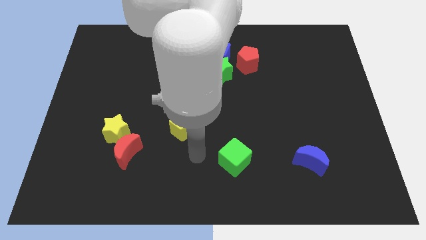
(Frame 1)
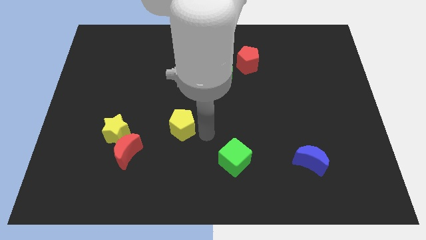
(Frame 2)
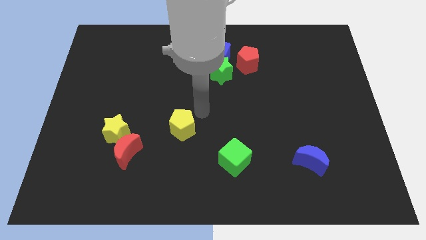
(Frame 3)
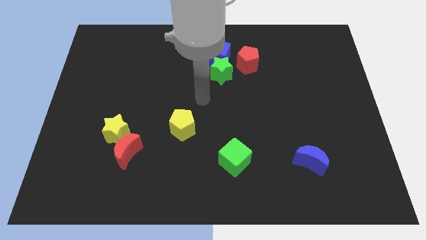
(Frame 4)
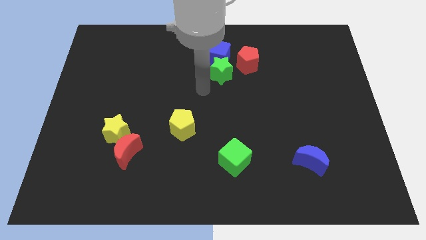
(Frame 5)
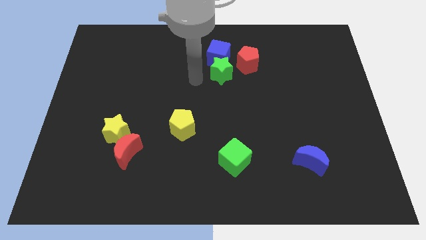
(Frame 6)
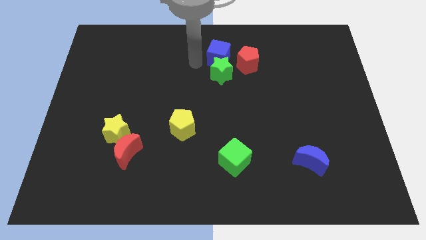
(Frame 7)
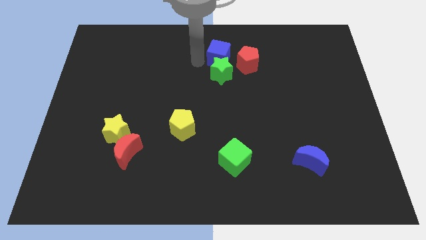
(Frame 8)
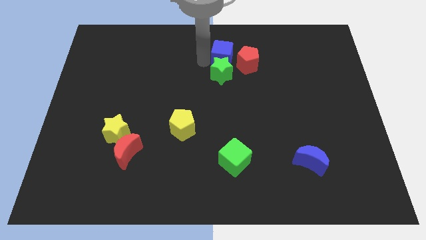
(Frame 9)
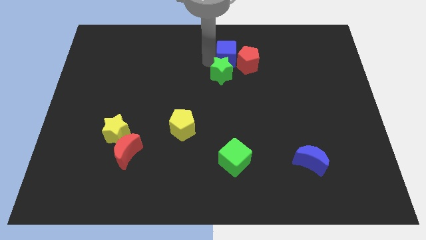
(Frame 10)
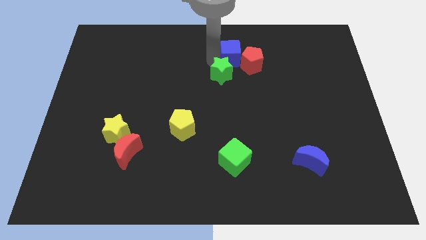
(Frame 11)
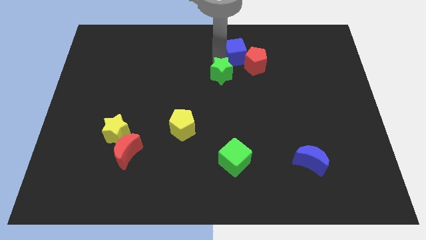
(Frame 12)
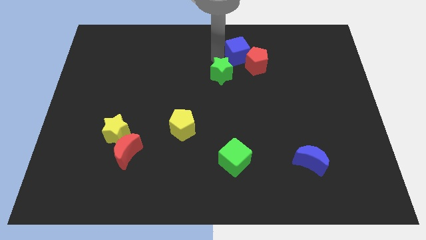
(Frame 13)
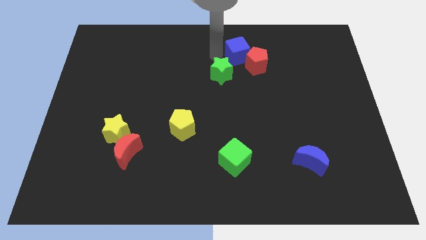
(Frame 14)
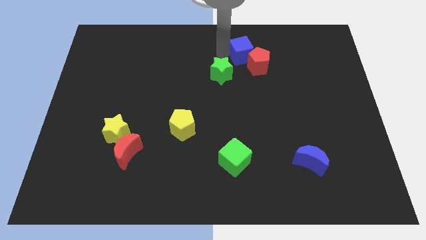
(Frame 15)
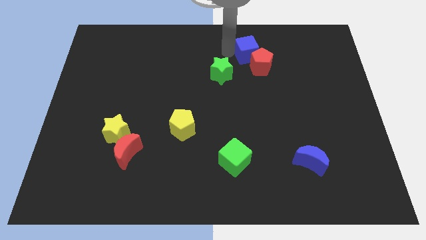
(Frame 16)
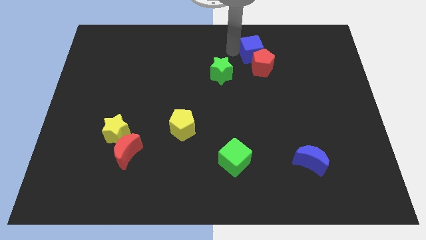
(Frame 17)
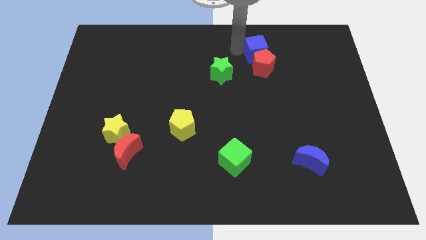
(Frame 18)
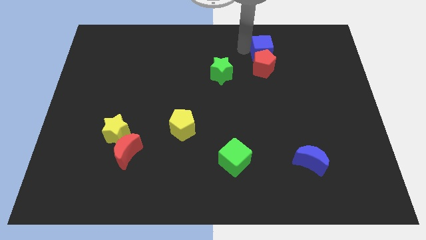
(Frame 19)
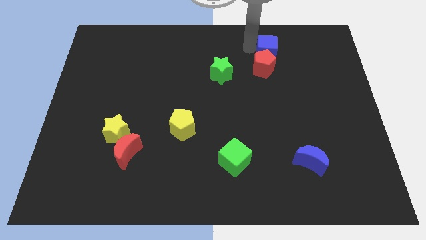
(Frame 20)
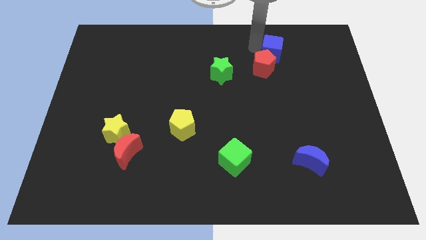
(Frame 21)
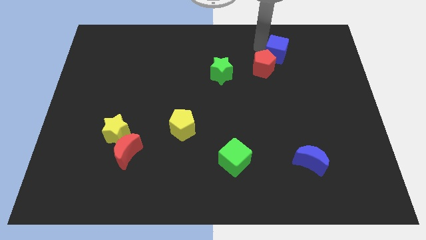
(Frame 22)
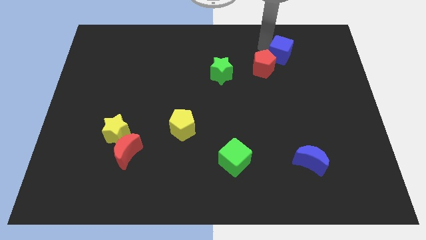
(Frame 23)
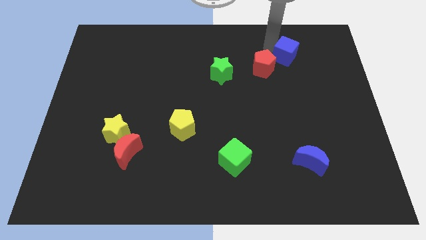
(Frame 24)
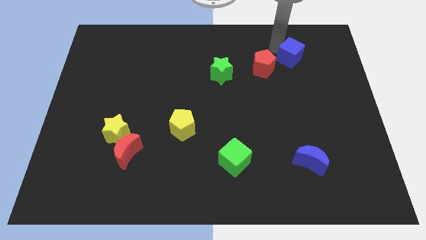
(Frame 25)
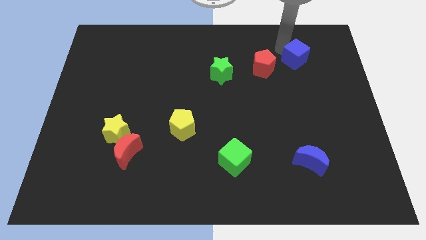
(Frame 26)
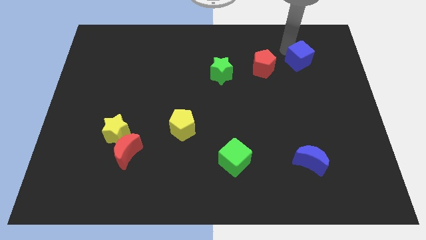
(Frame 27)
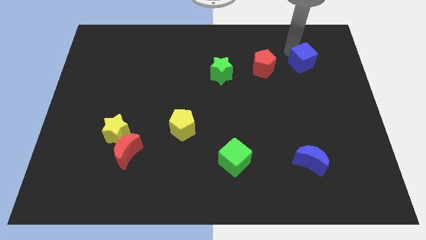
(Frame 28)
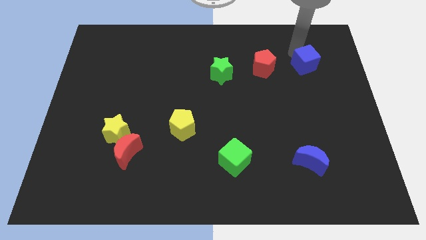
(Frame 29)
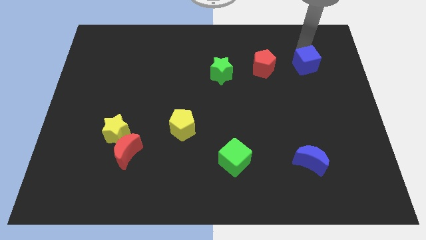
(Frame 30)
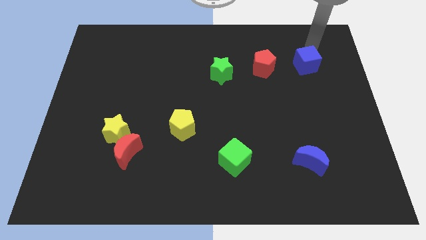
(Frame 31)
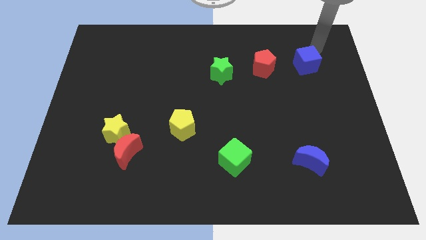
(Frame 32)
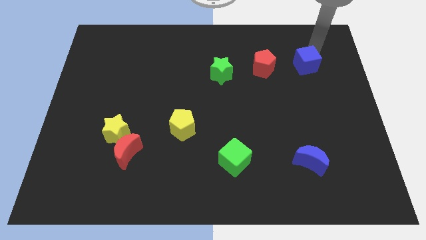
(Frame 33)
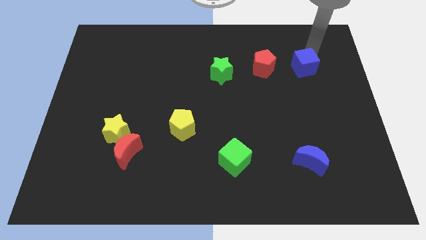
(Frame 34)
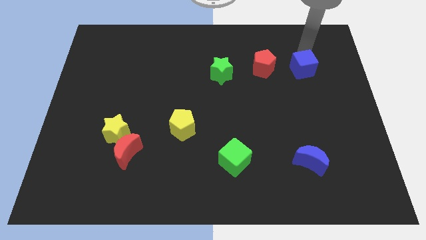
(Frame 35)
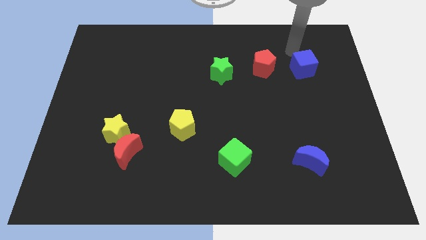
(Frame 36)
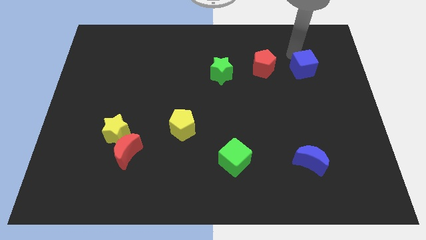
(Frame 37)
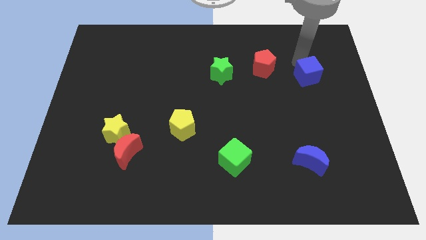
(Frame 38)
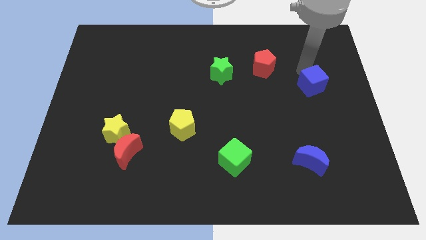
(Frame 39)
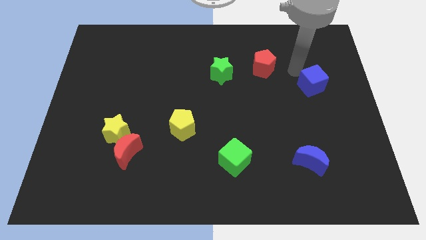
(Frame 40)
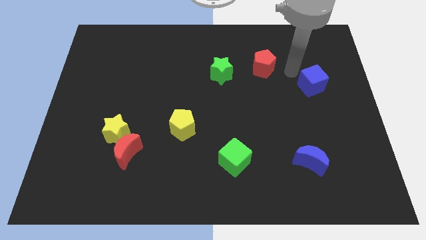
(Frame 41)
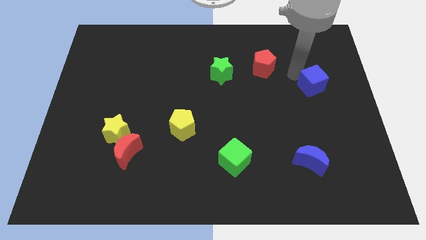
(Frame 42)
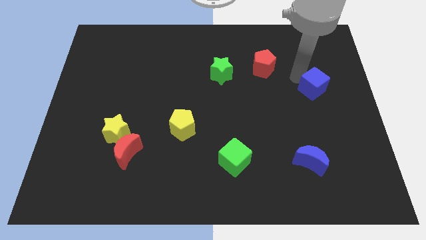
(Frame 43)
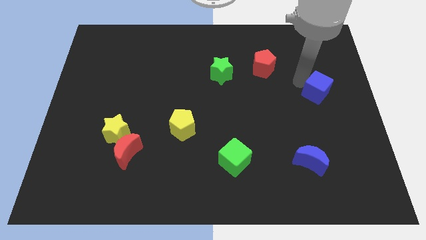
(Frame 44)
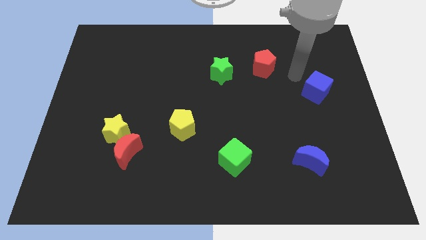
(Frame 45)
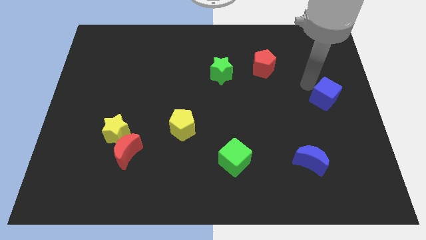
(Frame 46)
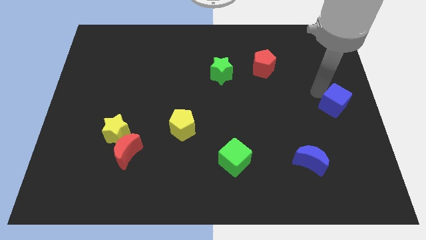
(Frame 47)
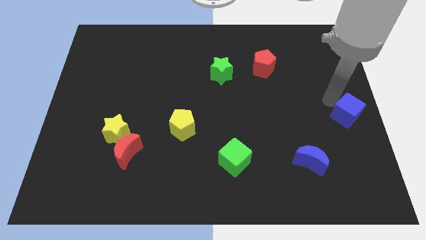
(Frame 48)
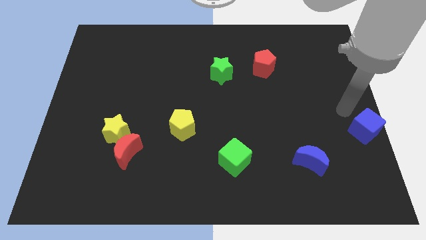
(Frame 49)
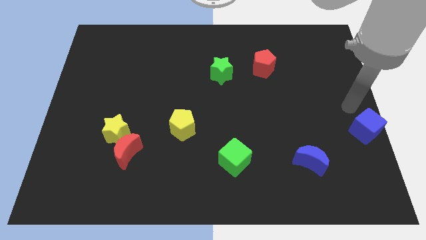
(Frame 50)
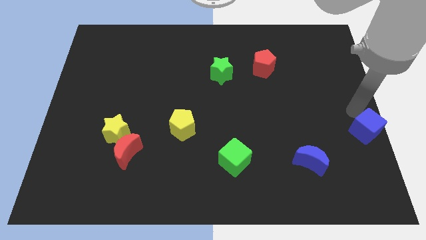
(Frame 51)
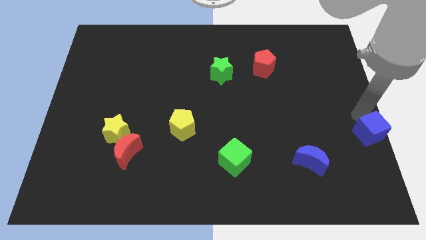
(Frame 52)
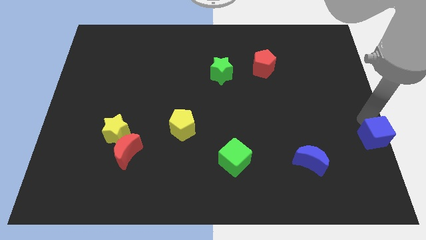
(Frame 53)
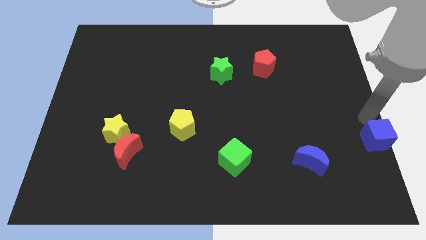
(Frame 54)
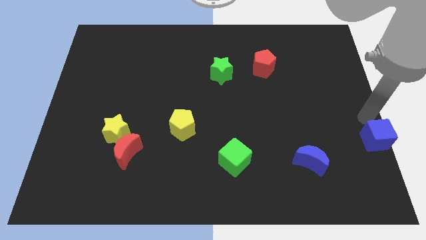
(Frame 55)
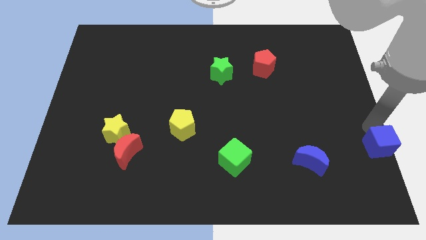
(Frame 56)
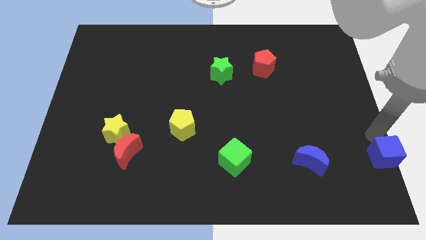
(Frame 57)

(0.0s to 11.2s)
move the blue cube to the bottom right of the board

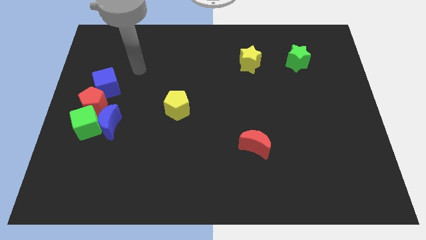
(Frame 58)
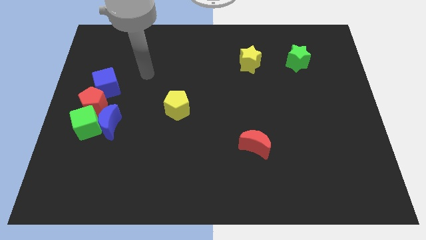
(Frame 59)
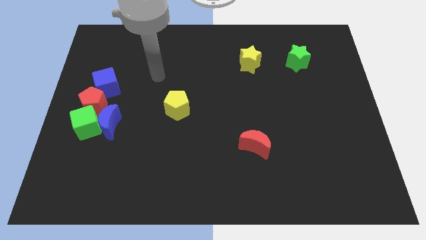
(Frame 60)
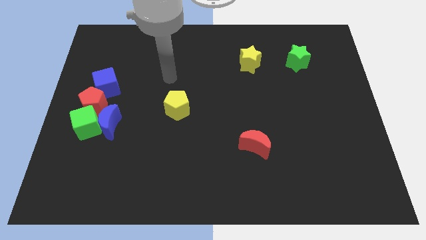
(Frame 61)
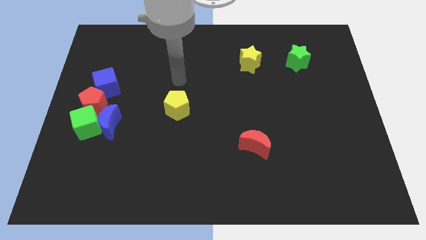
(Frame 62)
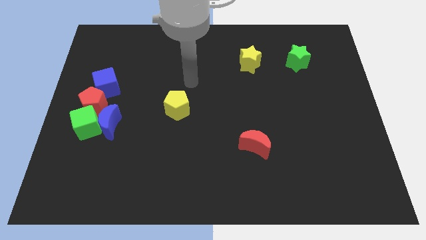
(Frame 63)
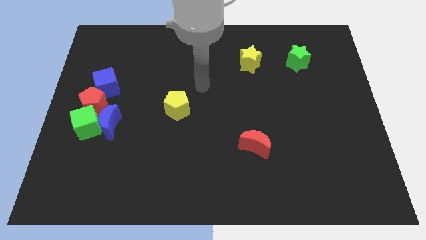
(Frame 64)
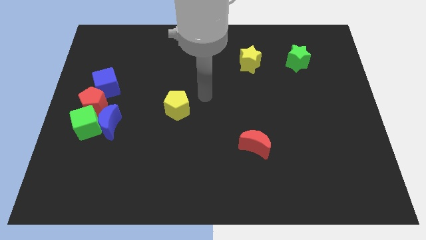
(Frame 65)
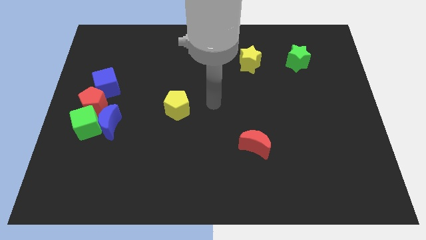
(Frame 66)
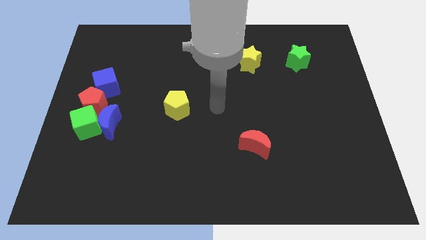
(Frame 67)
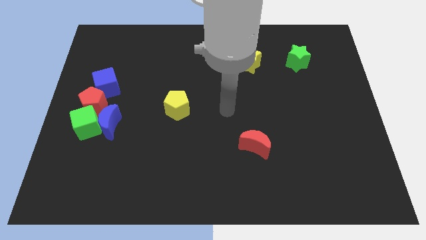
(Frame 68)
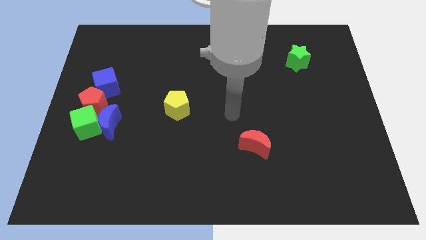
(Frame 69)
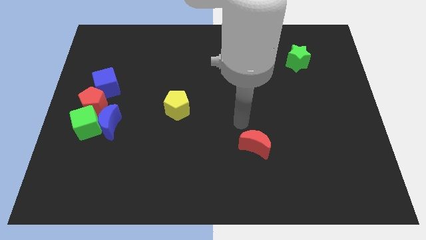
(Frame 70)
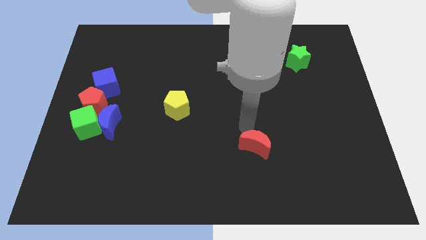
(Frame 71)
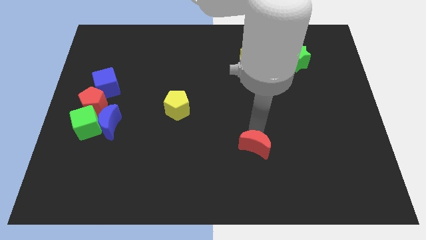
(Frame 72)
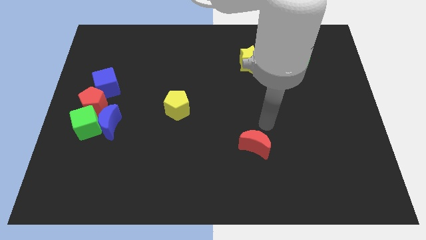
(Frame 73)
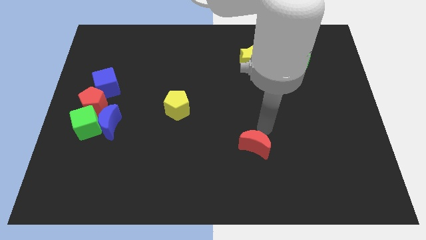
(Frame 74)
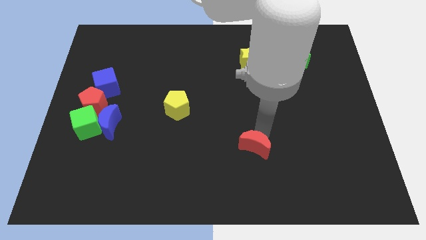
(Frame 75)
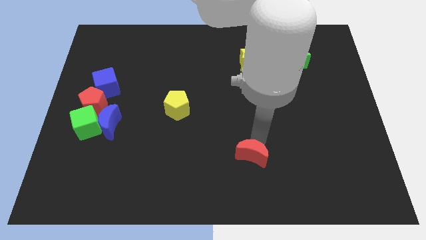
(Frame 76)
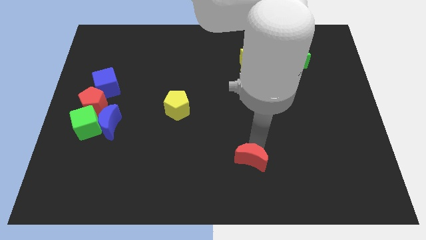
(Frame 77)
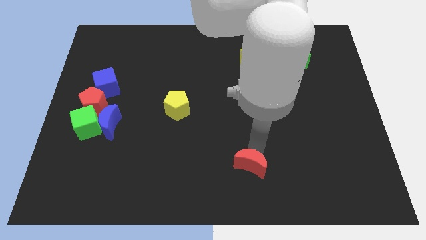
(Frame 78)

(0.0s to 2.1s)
put the red moon to the bottom
